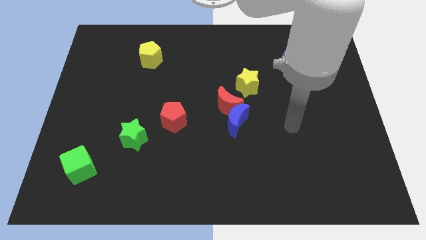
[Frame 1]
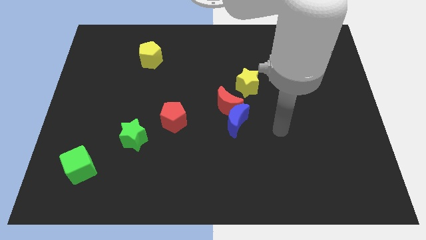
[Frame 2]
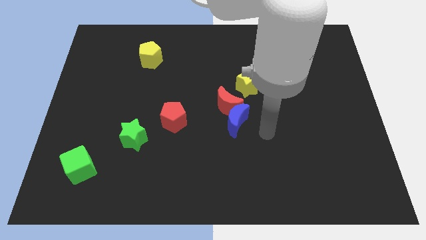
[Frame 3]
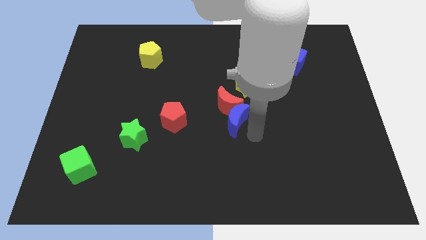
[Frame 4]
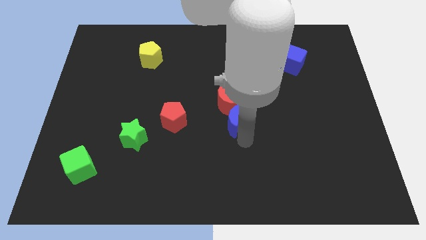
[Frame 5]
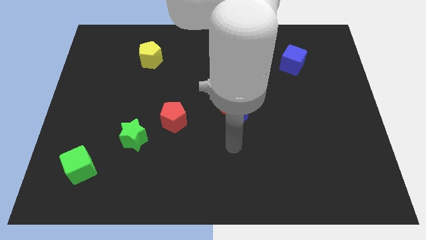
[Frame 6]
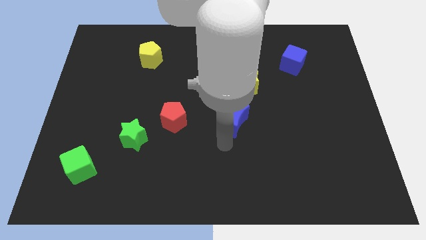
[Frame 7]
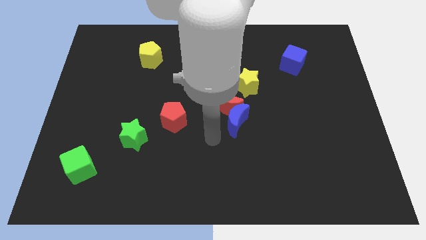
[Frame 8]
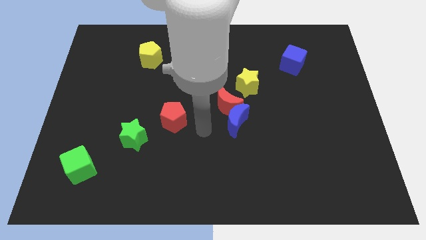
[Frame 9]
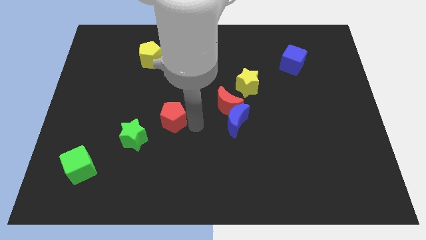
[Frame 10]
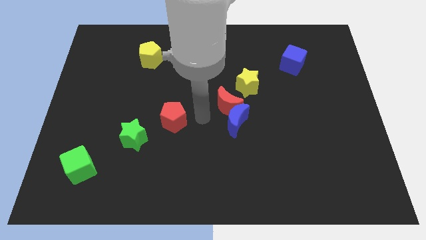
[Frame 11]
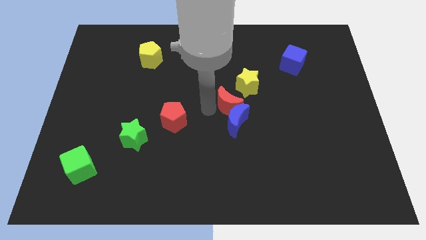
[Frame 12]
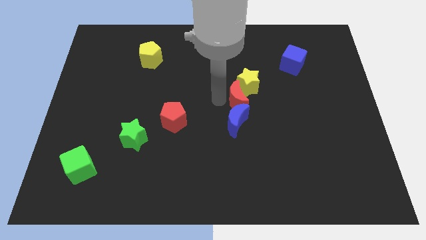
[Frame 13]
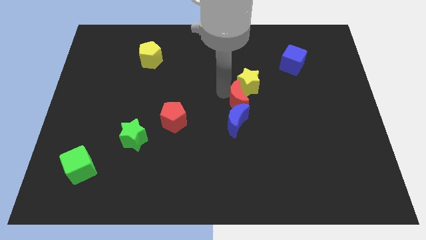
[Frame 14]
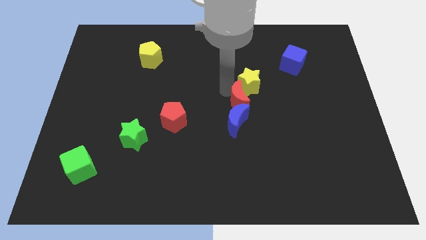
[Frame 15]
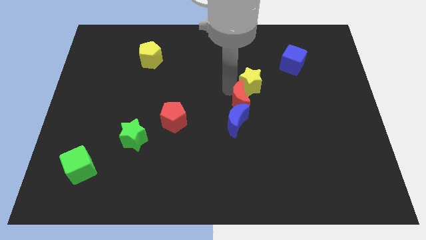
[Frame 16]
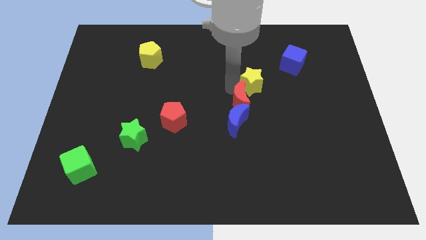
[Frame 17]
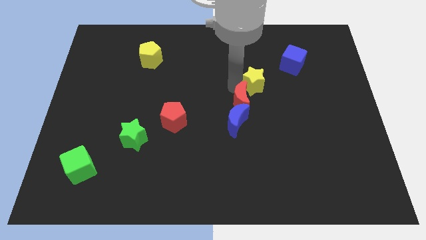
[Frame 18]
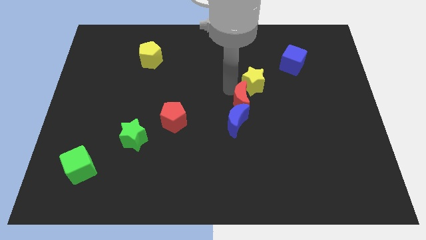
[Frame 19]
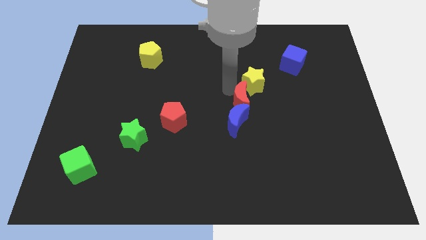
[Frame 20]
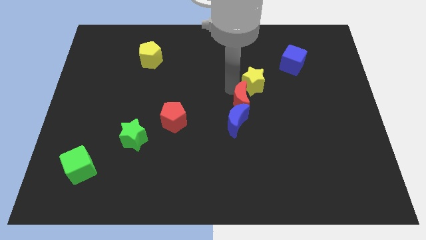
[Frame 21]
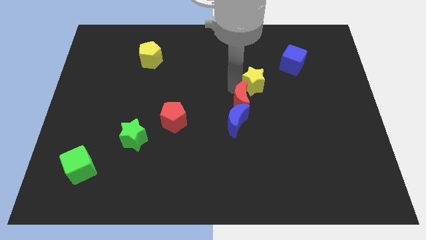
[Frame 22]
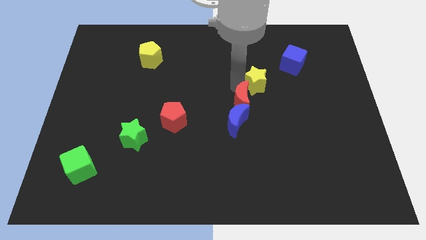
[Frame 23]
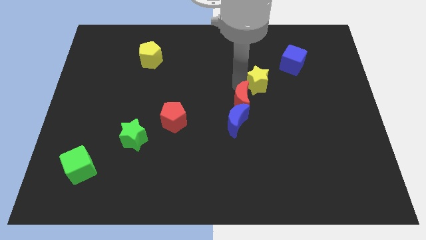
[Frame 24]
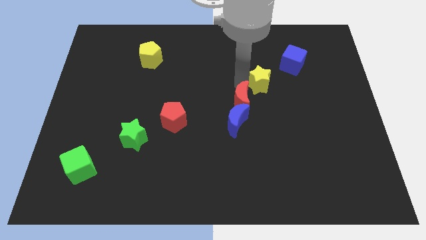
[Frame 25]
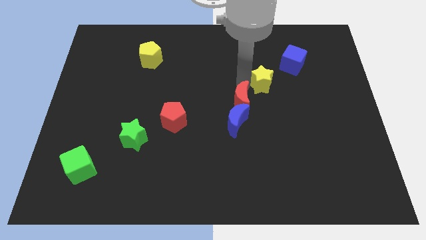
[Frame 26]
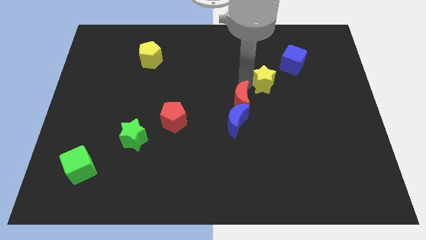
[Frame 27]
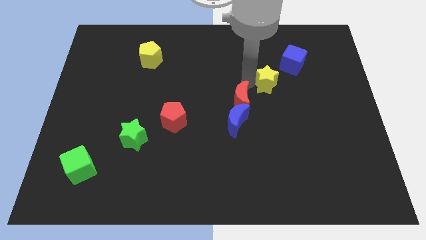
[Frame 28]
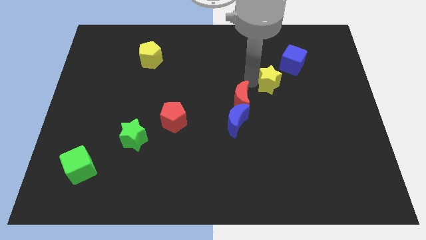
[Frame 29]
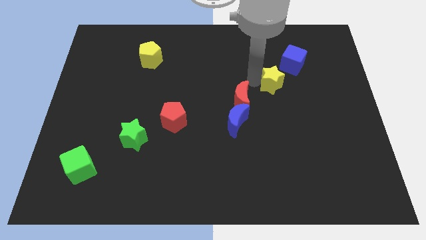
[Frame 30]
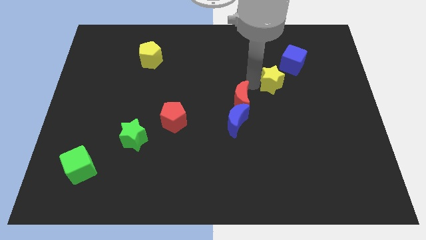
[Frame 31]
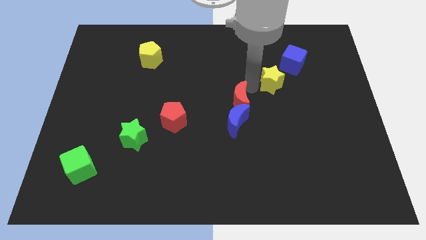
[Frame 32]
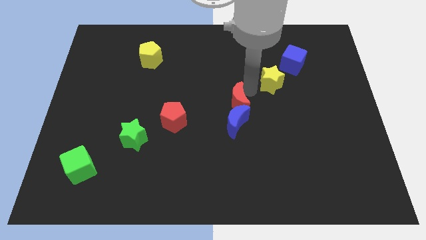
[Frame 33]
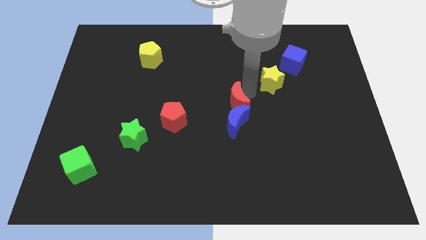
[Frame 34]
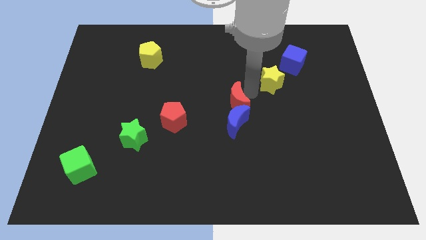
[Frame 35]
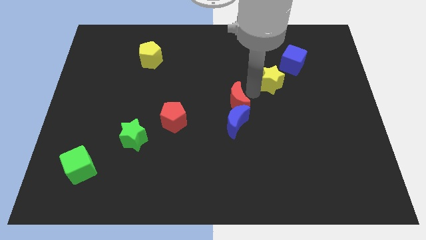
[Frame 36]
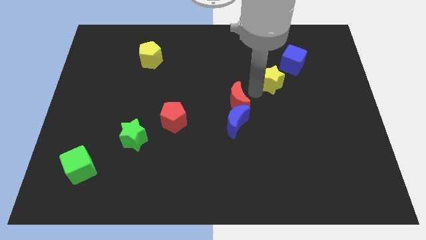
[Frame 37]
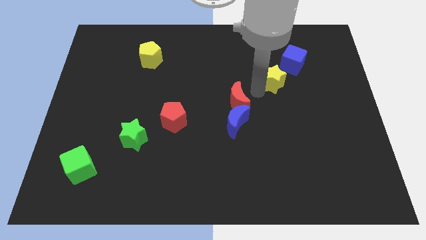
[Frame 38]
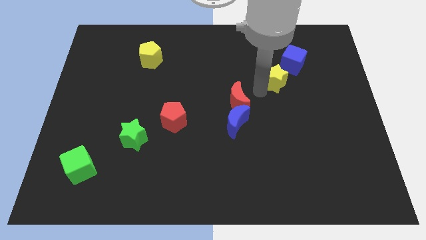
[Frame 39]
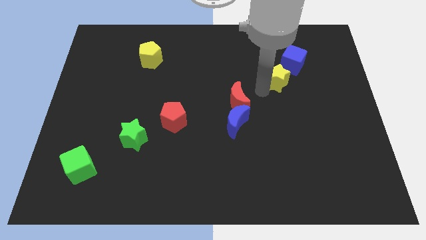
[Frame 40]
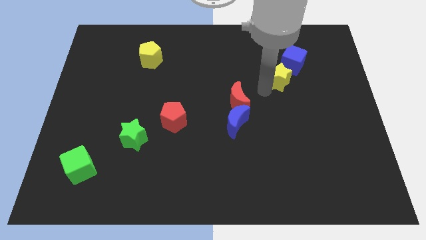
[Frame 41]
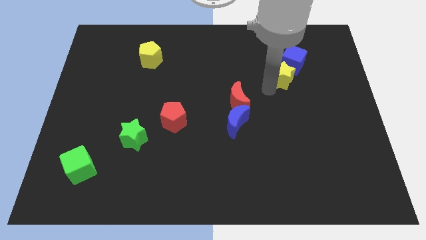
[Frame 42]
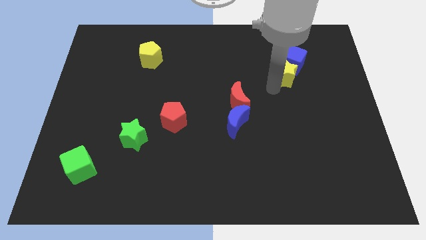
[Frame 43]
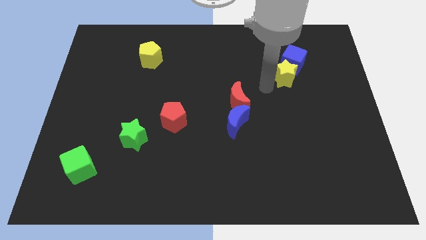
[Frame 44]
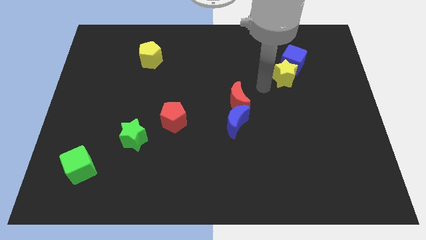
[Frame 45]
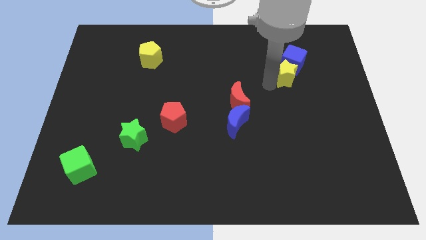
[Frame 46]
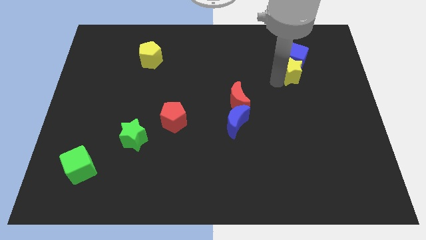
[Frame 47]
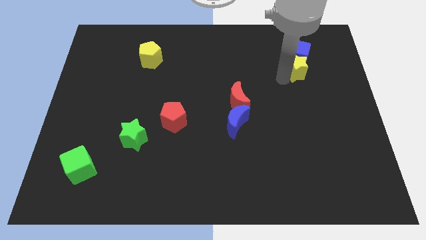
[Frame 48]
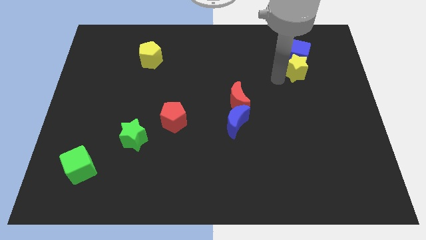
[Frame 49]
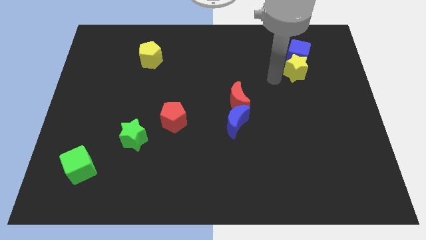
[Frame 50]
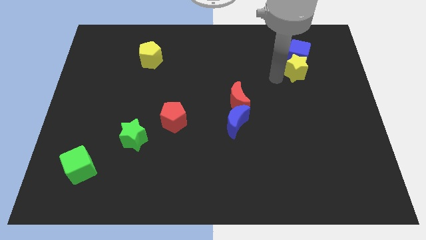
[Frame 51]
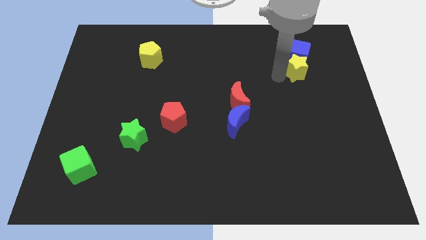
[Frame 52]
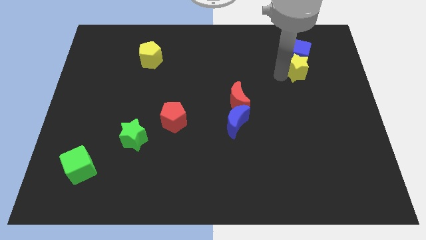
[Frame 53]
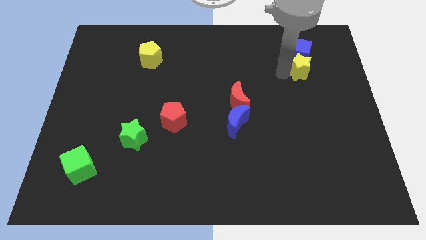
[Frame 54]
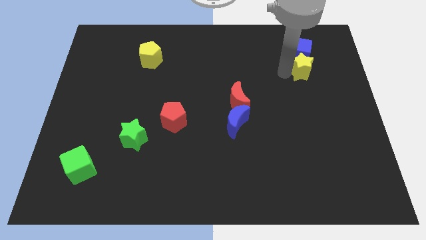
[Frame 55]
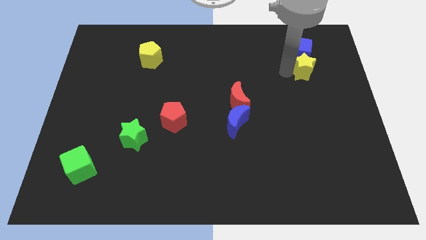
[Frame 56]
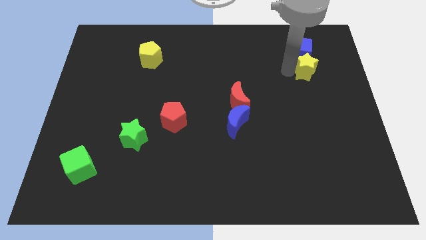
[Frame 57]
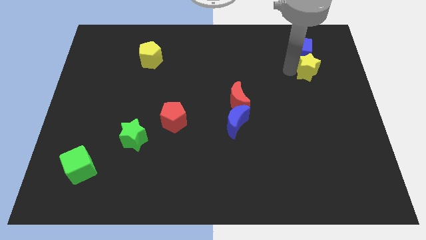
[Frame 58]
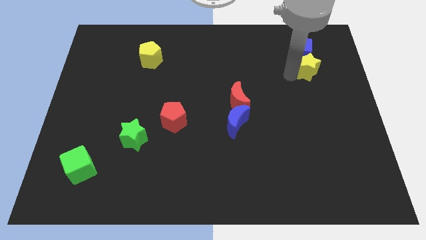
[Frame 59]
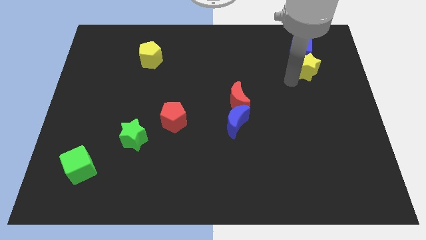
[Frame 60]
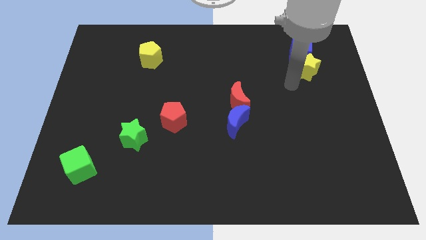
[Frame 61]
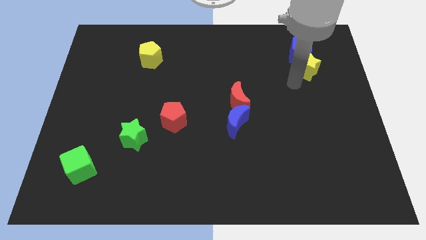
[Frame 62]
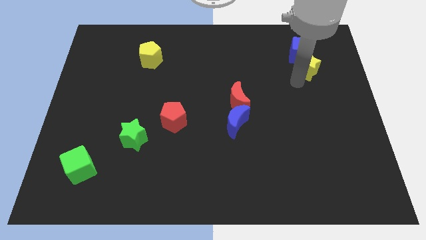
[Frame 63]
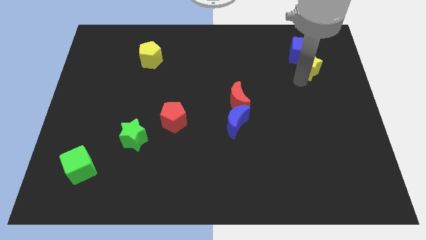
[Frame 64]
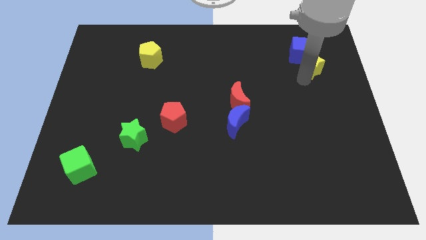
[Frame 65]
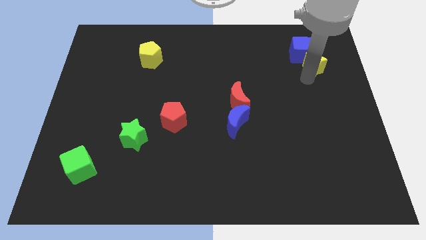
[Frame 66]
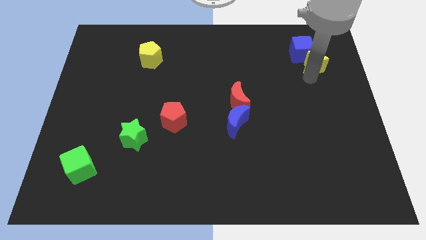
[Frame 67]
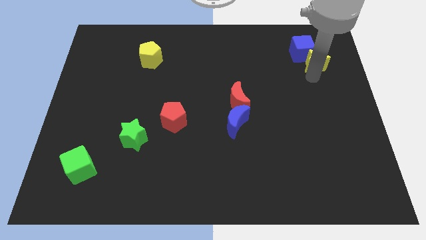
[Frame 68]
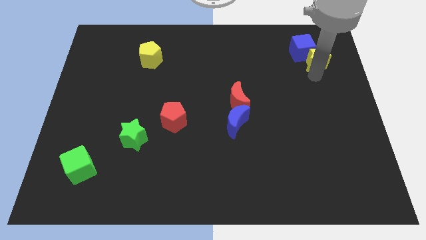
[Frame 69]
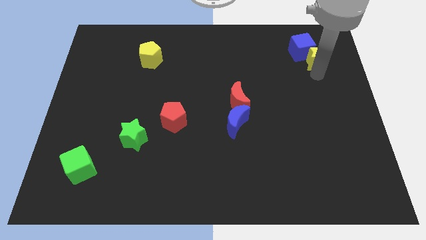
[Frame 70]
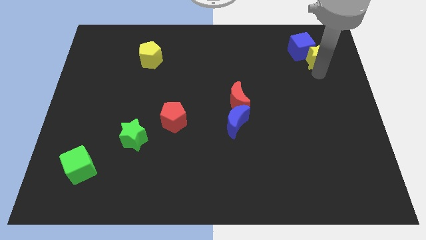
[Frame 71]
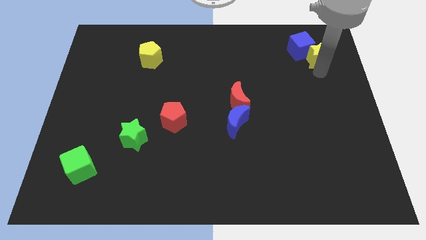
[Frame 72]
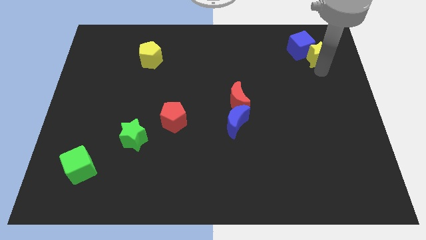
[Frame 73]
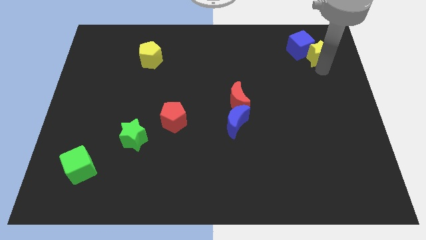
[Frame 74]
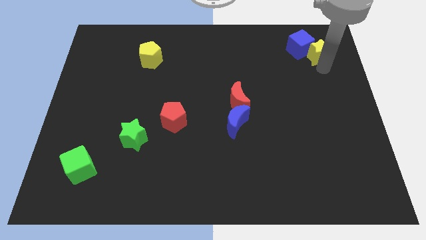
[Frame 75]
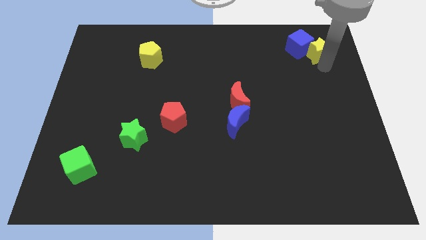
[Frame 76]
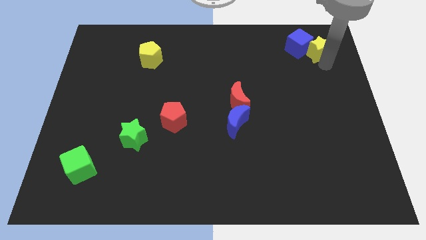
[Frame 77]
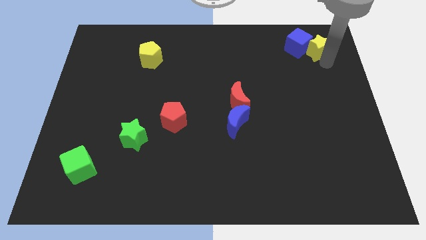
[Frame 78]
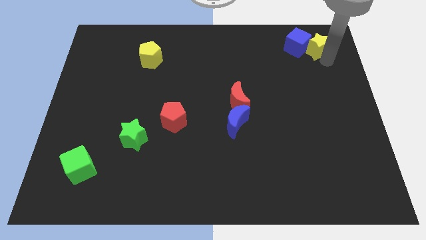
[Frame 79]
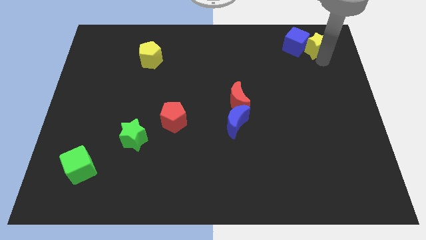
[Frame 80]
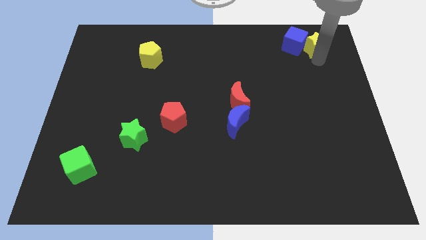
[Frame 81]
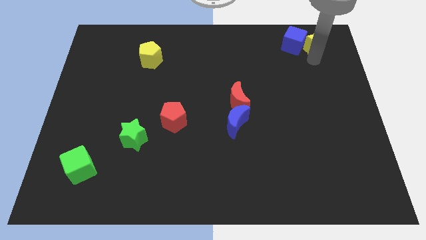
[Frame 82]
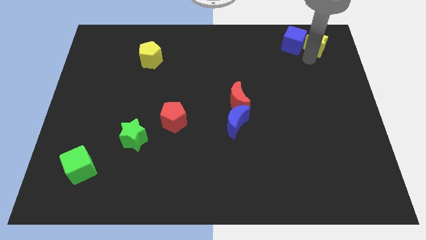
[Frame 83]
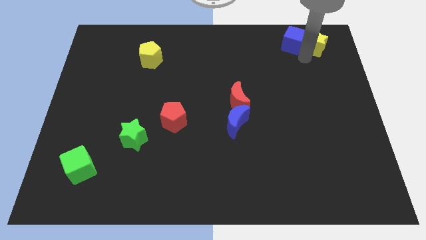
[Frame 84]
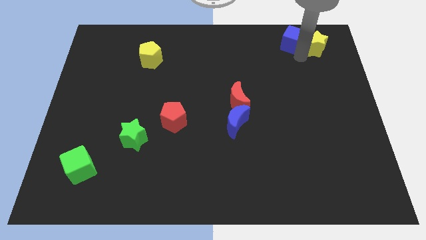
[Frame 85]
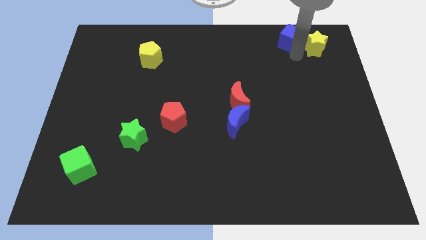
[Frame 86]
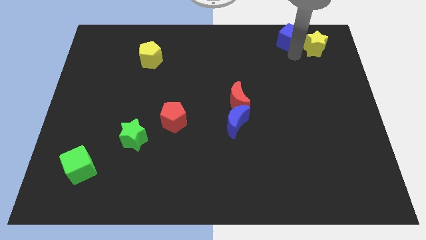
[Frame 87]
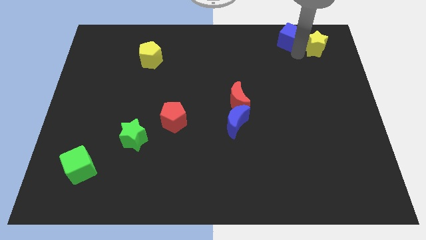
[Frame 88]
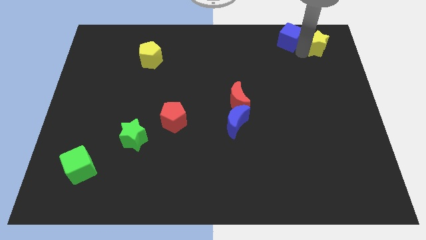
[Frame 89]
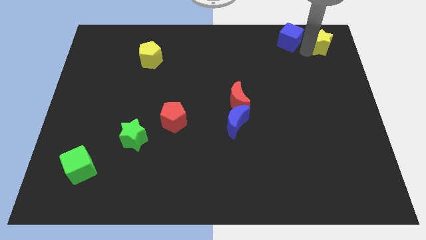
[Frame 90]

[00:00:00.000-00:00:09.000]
push the yellow star to the top right
